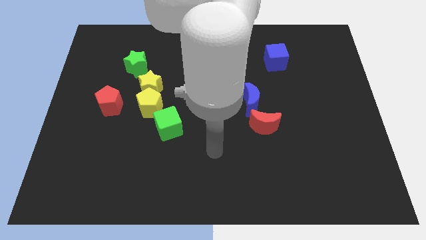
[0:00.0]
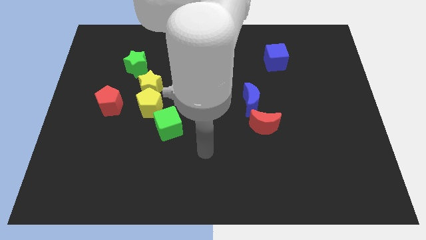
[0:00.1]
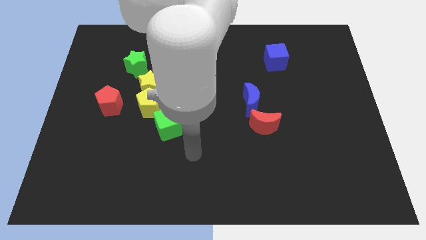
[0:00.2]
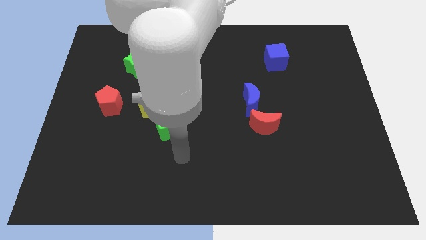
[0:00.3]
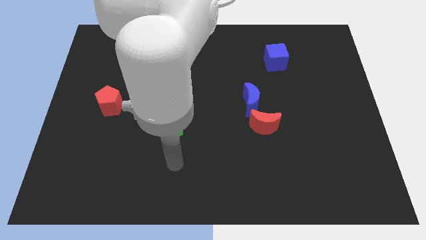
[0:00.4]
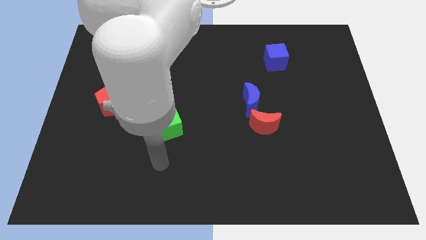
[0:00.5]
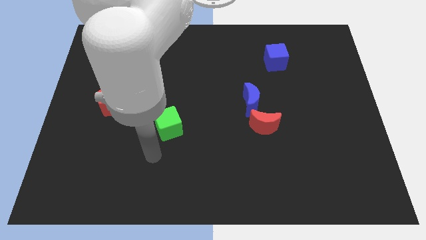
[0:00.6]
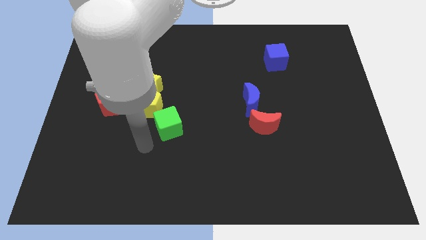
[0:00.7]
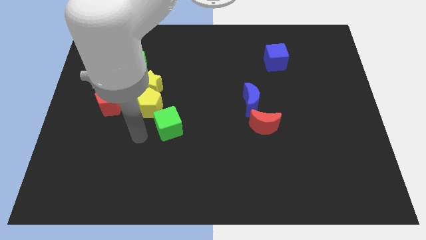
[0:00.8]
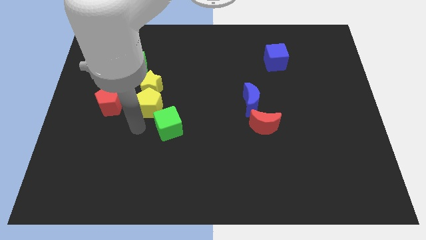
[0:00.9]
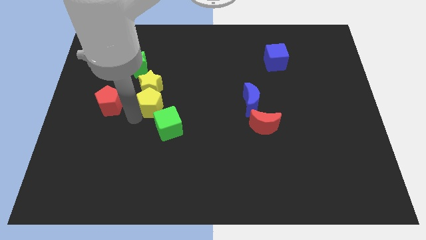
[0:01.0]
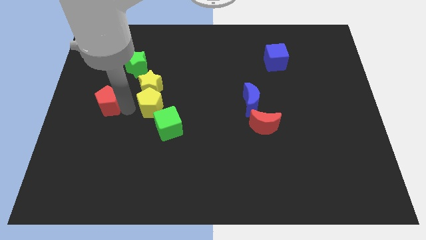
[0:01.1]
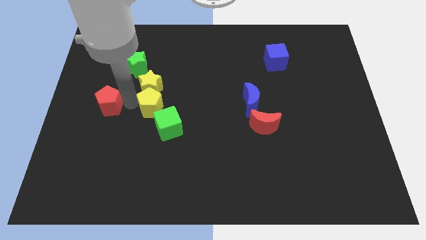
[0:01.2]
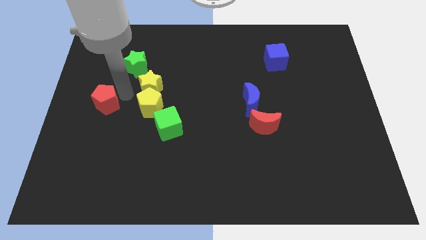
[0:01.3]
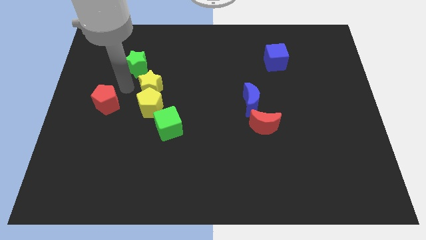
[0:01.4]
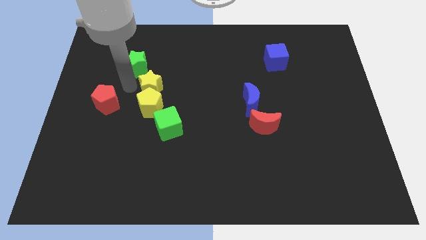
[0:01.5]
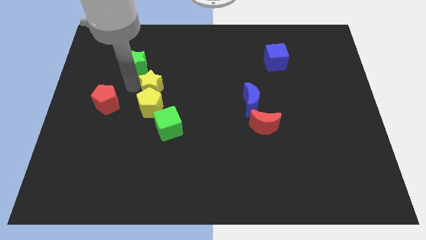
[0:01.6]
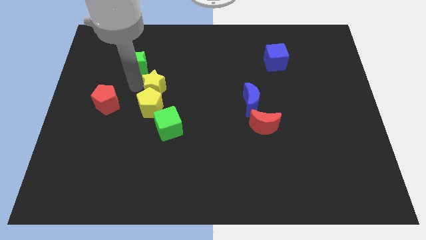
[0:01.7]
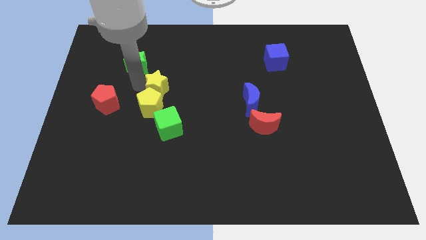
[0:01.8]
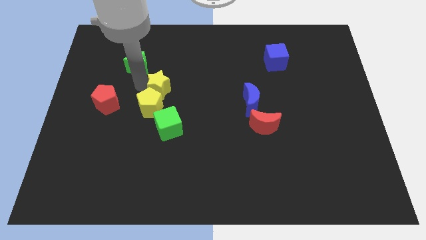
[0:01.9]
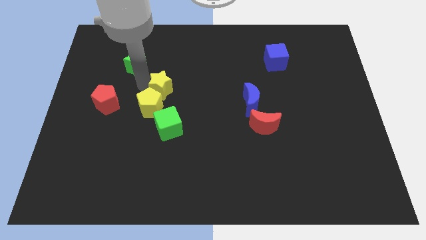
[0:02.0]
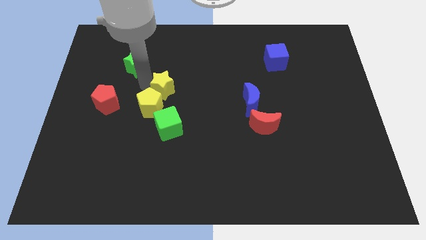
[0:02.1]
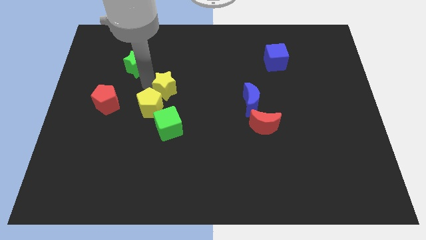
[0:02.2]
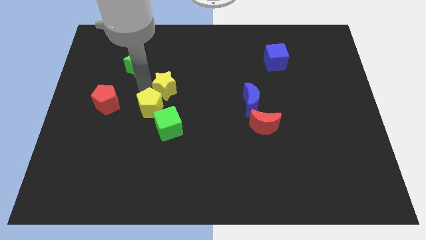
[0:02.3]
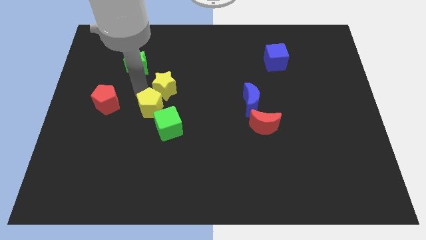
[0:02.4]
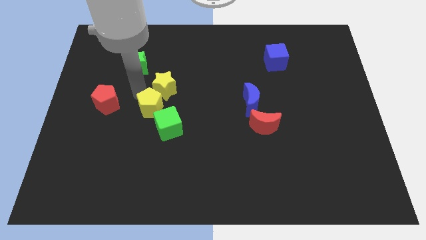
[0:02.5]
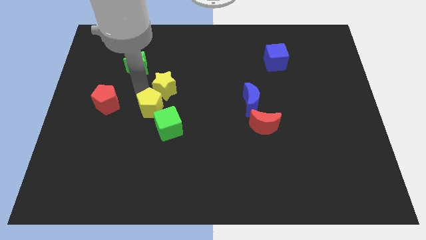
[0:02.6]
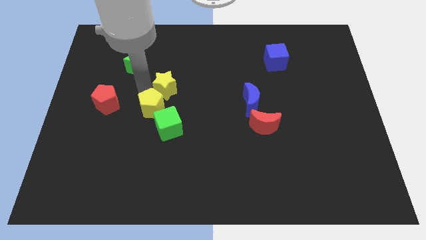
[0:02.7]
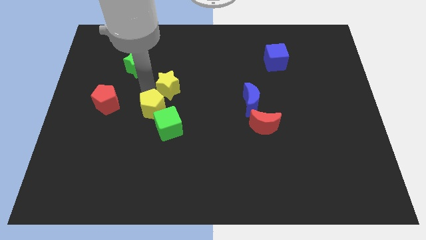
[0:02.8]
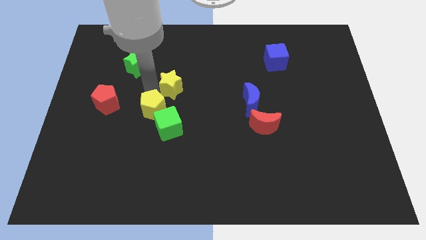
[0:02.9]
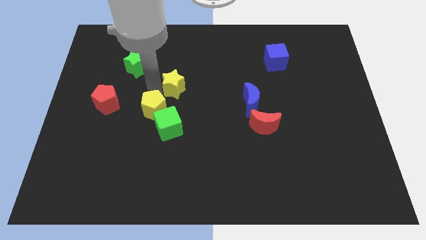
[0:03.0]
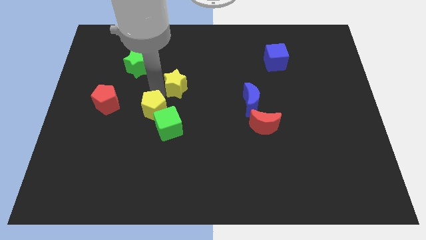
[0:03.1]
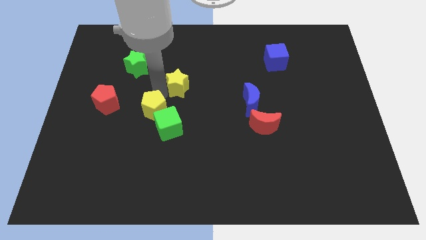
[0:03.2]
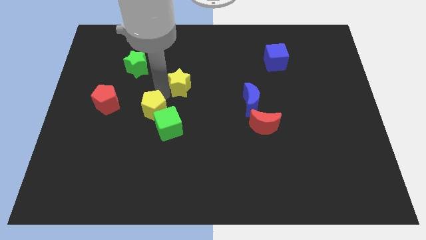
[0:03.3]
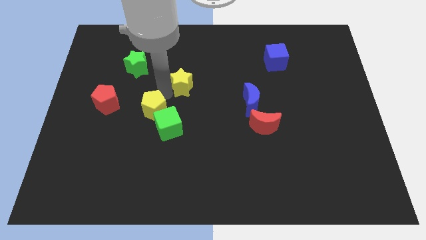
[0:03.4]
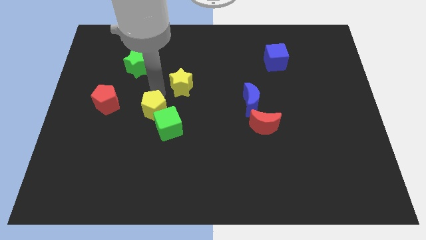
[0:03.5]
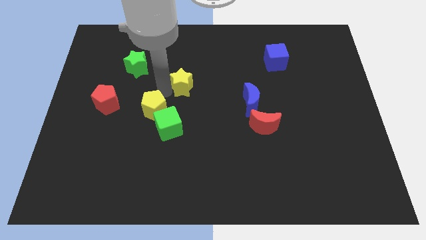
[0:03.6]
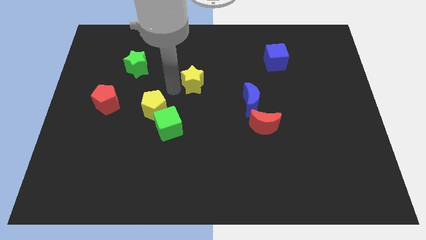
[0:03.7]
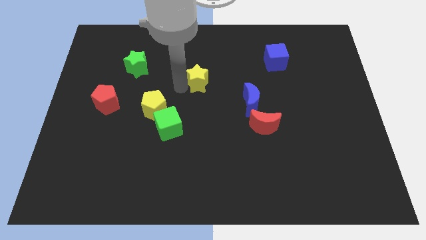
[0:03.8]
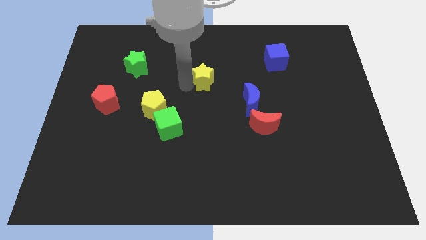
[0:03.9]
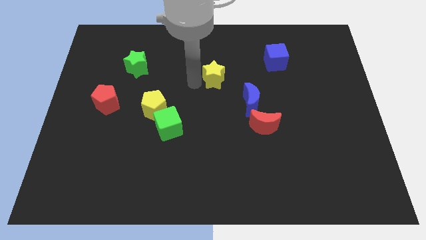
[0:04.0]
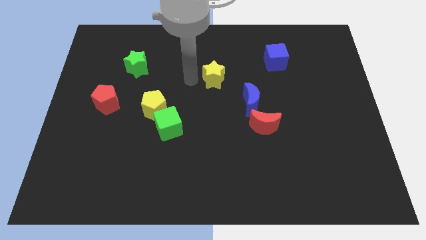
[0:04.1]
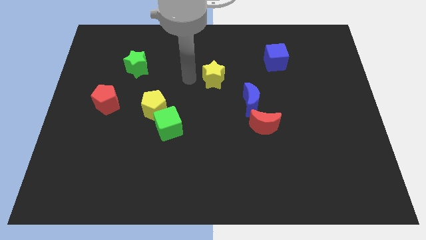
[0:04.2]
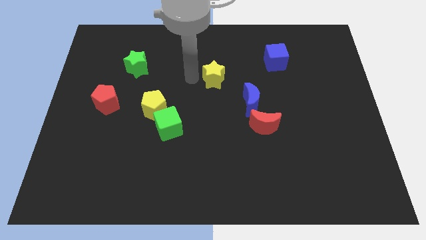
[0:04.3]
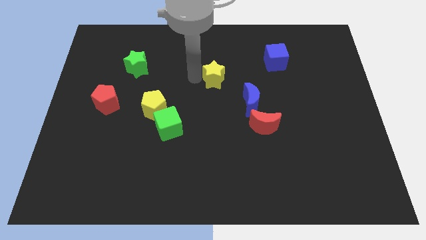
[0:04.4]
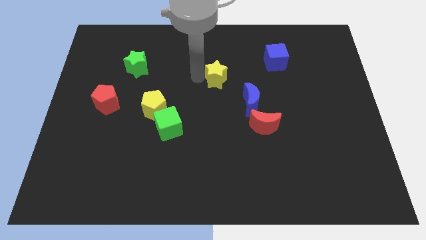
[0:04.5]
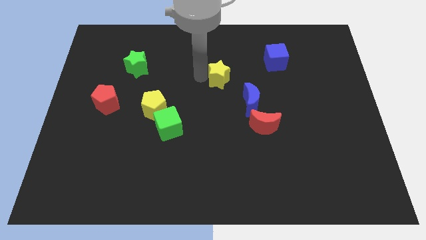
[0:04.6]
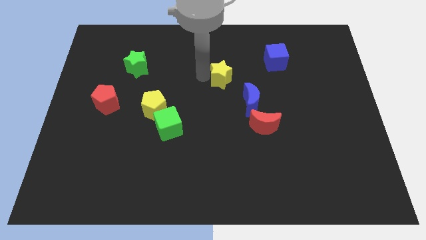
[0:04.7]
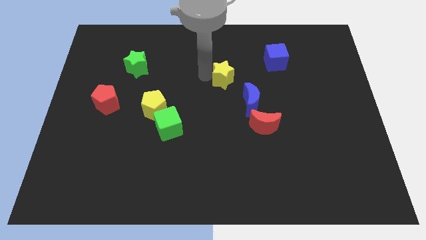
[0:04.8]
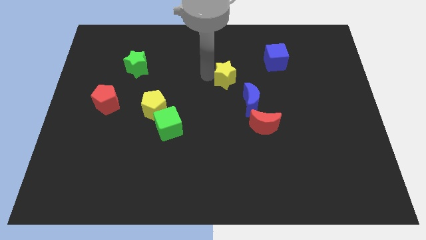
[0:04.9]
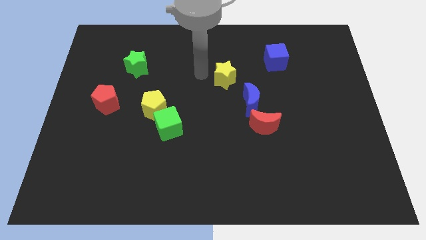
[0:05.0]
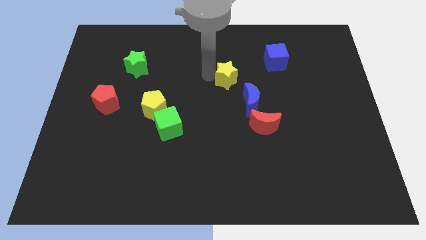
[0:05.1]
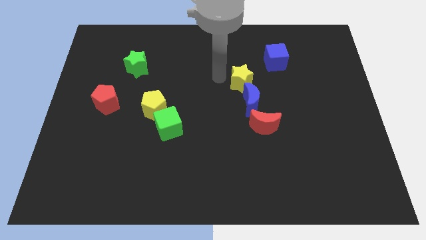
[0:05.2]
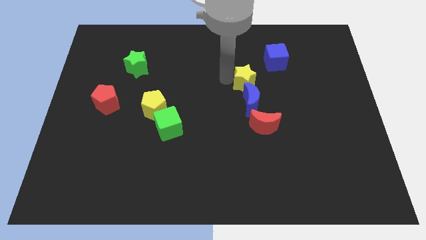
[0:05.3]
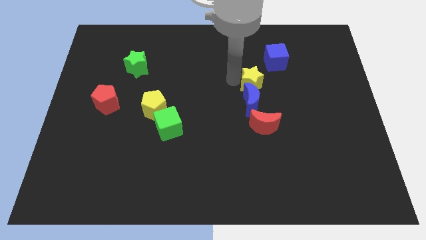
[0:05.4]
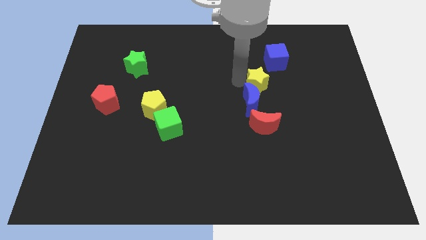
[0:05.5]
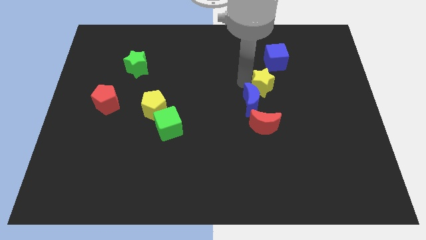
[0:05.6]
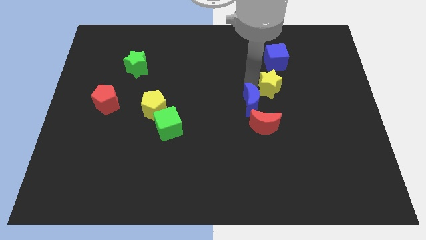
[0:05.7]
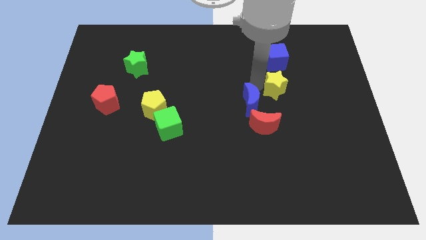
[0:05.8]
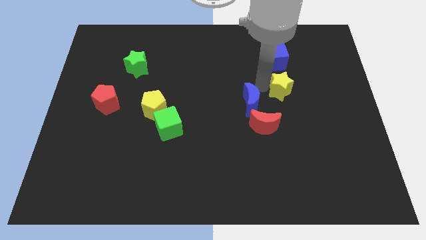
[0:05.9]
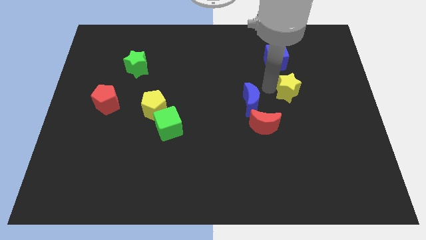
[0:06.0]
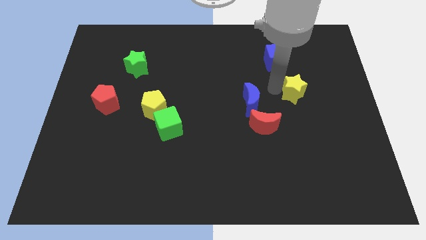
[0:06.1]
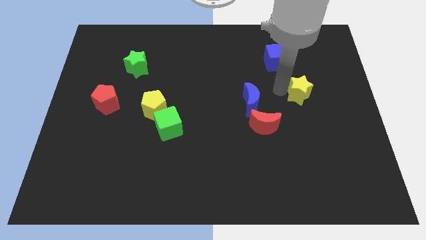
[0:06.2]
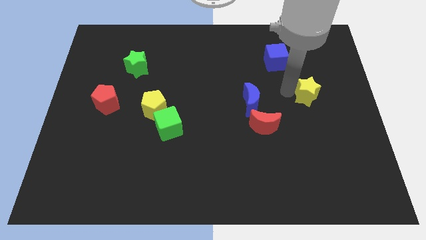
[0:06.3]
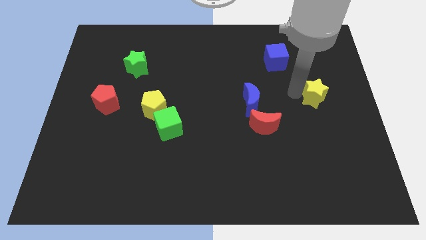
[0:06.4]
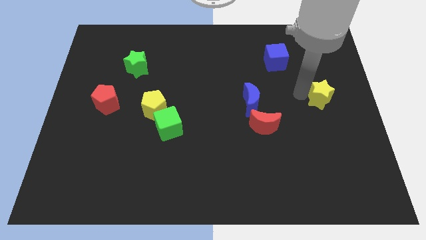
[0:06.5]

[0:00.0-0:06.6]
push the yellow star to the center right
